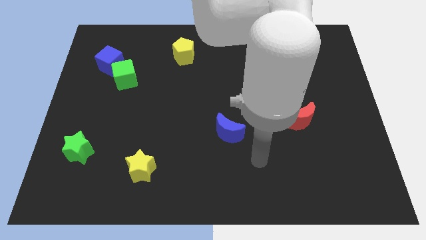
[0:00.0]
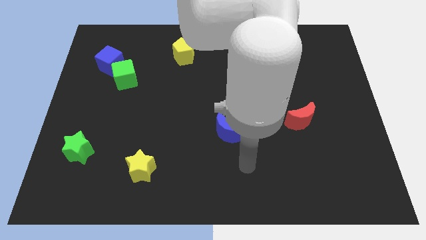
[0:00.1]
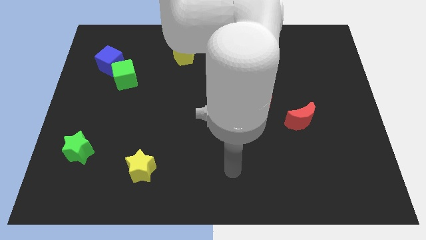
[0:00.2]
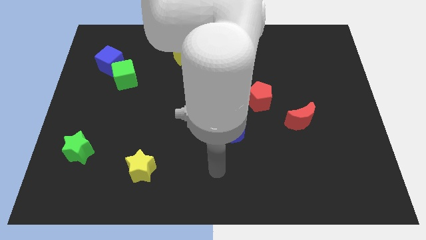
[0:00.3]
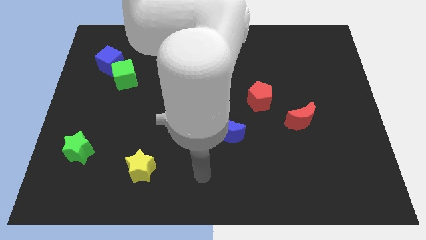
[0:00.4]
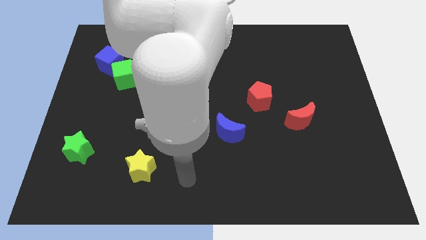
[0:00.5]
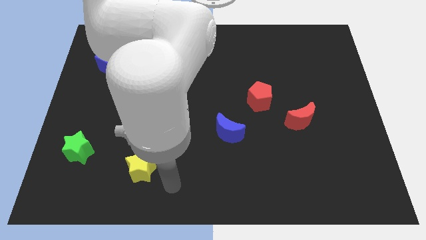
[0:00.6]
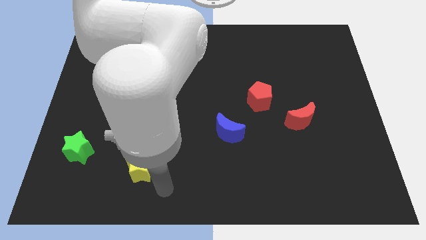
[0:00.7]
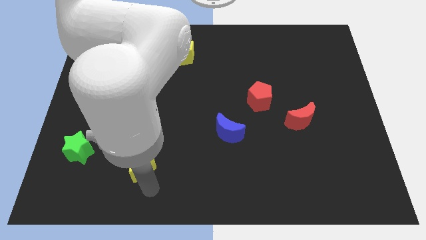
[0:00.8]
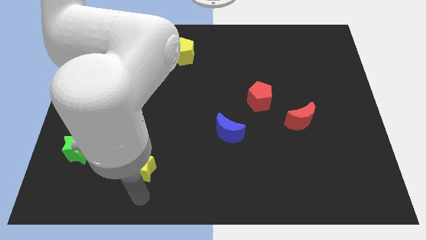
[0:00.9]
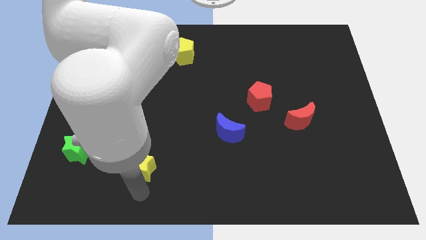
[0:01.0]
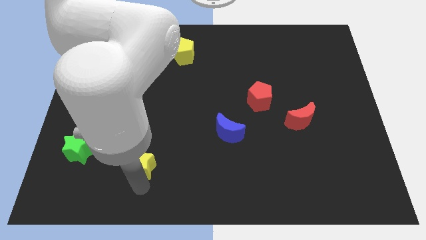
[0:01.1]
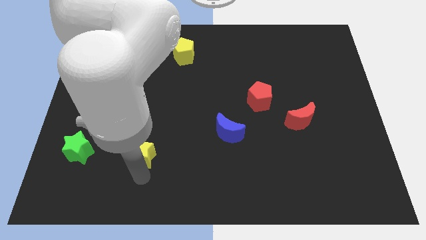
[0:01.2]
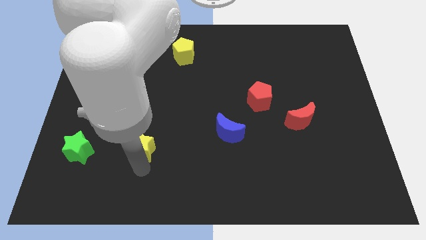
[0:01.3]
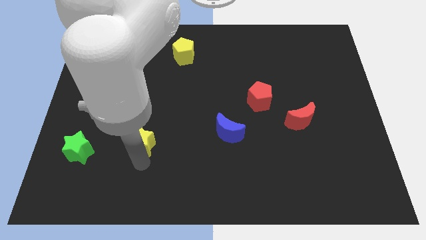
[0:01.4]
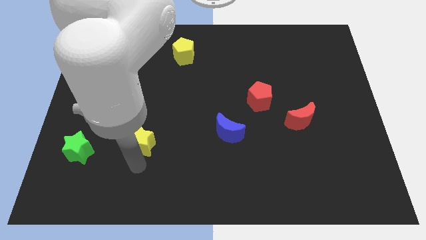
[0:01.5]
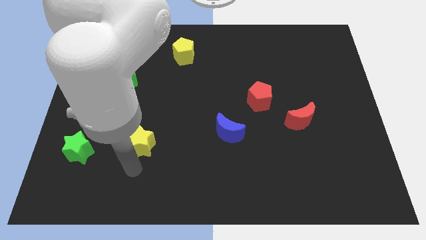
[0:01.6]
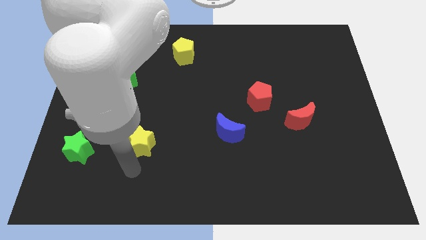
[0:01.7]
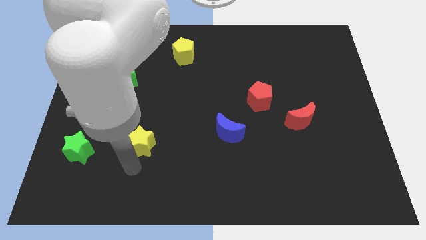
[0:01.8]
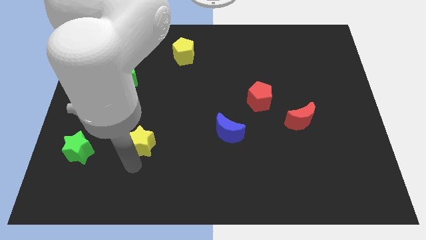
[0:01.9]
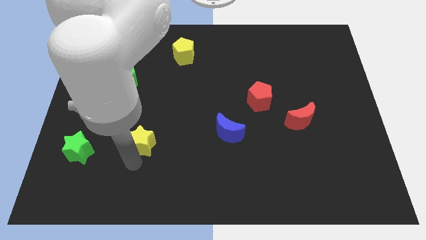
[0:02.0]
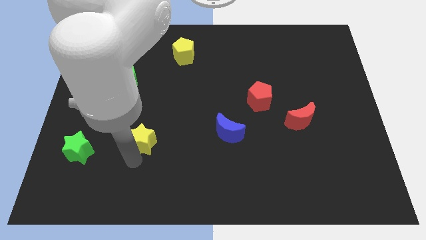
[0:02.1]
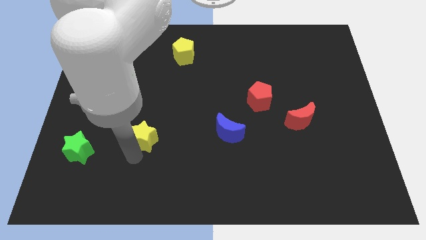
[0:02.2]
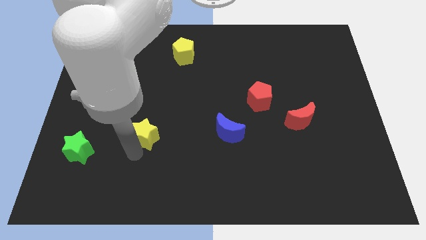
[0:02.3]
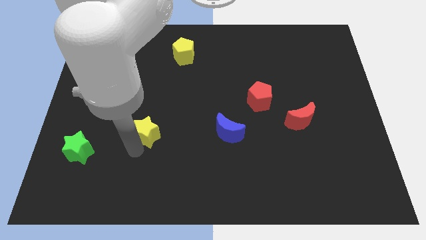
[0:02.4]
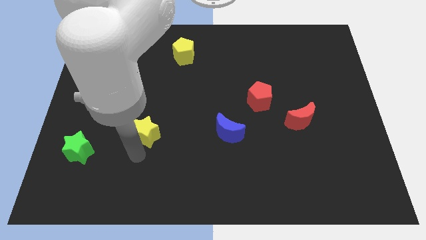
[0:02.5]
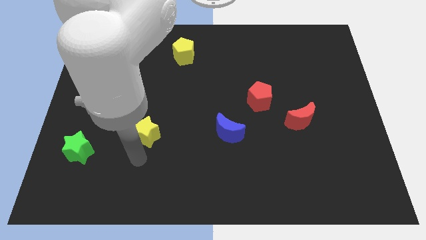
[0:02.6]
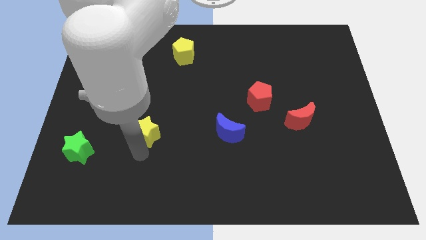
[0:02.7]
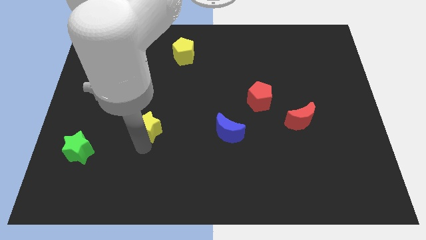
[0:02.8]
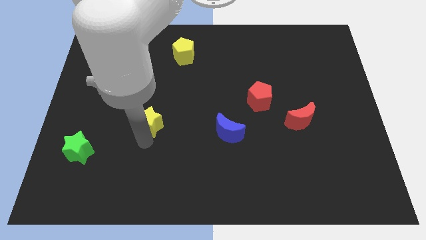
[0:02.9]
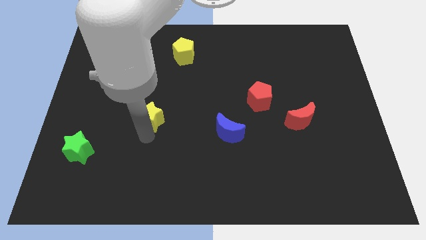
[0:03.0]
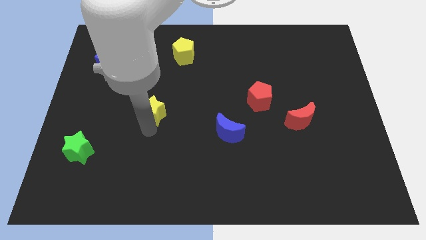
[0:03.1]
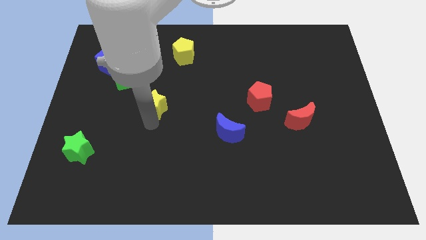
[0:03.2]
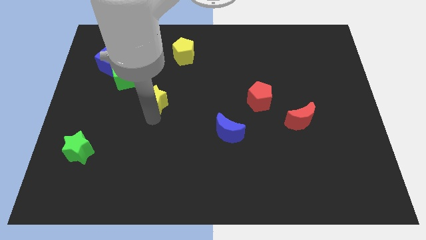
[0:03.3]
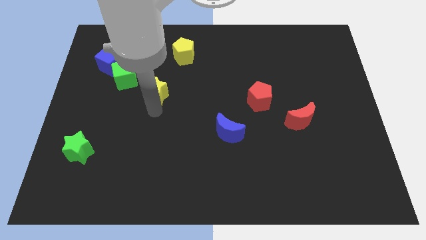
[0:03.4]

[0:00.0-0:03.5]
push the yellow star up

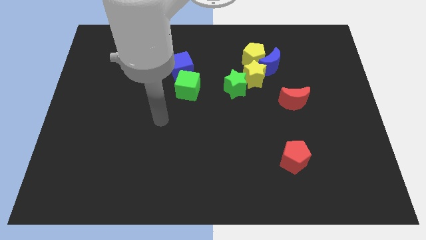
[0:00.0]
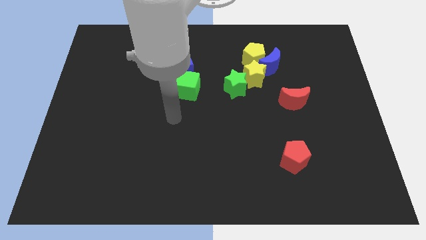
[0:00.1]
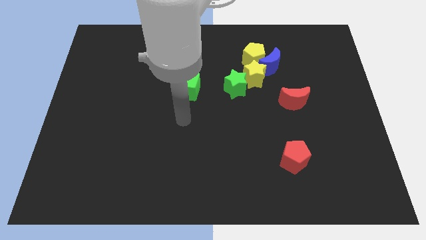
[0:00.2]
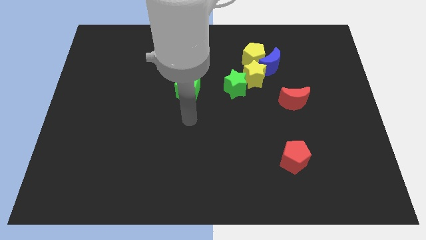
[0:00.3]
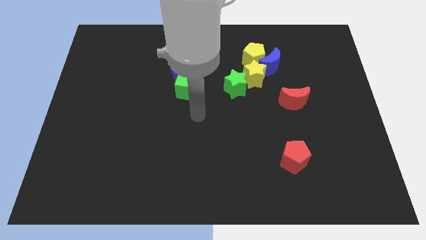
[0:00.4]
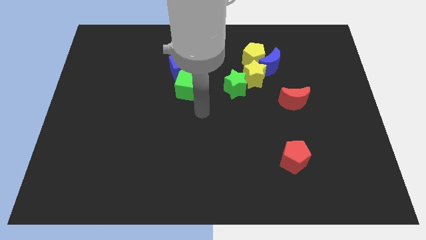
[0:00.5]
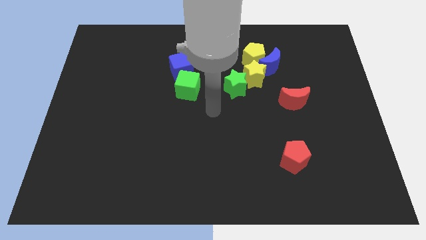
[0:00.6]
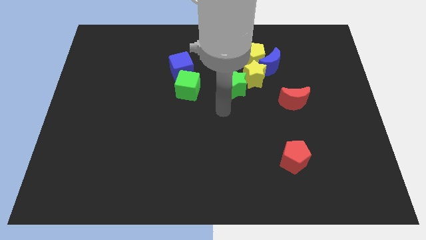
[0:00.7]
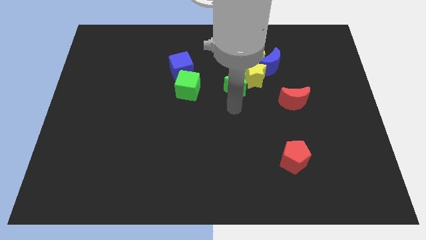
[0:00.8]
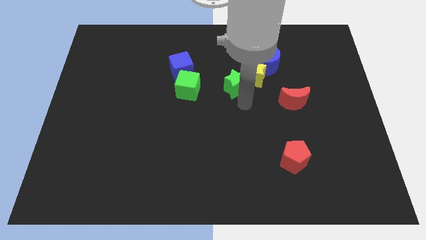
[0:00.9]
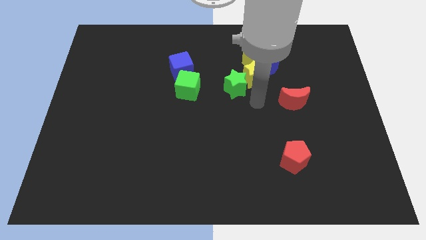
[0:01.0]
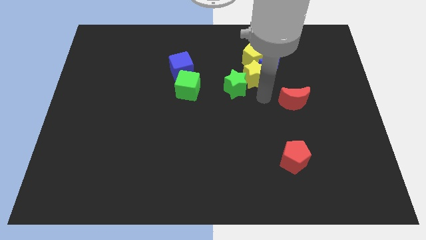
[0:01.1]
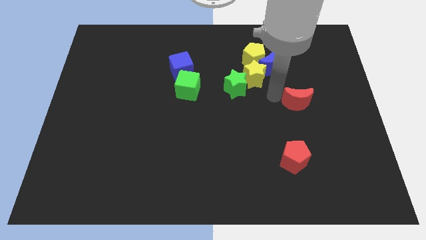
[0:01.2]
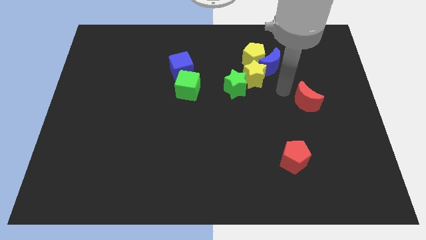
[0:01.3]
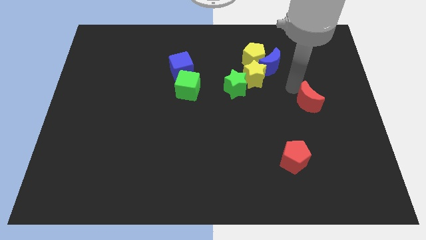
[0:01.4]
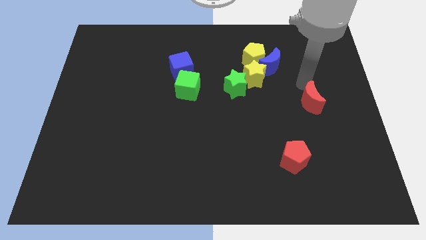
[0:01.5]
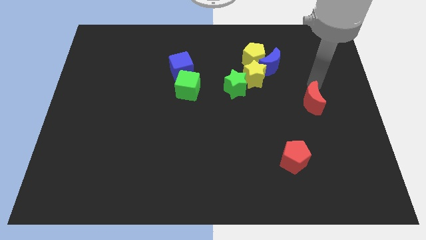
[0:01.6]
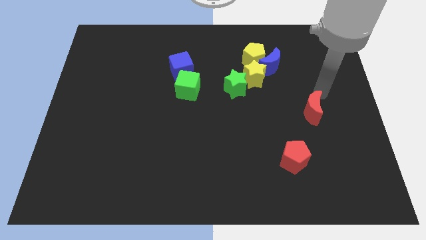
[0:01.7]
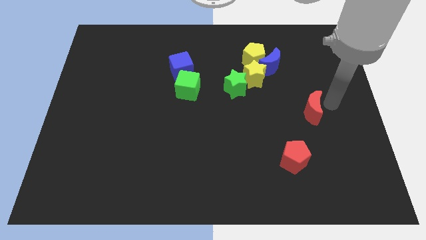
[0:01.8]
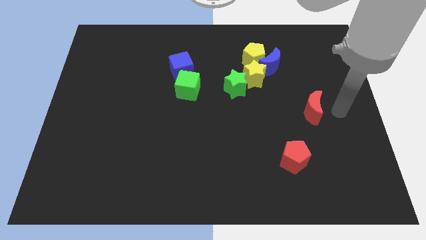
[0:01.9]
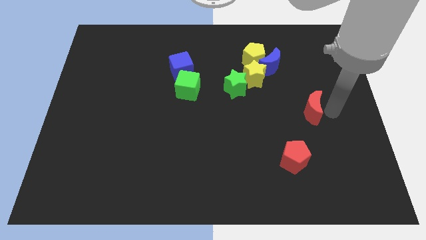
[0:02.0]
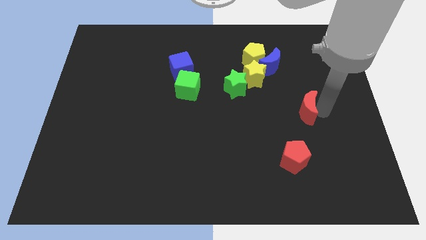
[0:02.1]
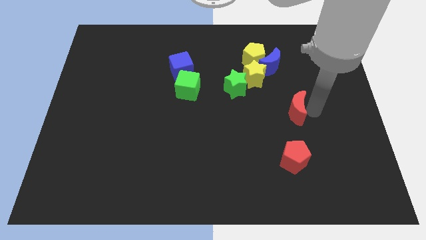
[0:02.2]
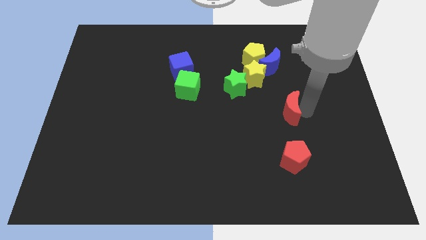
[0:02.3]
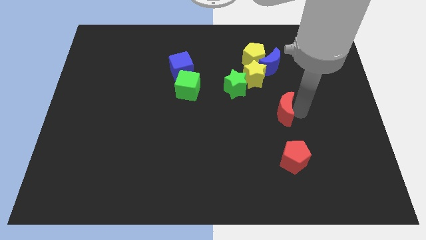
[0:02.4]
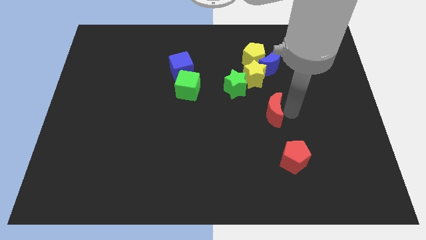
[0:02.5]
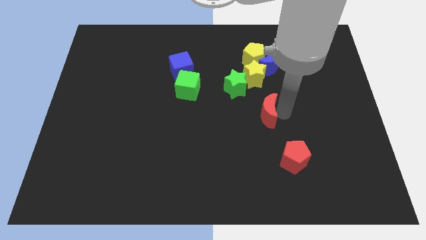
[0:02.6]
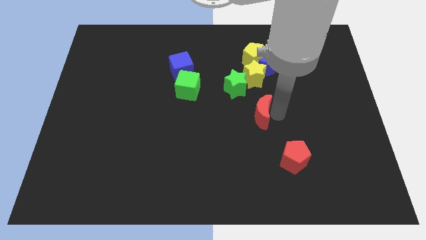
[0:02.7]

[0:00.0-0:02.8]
slightly move the red moon to the left

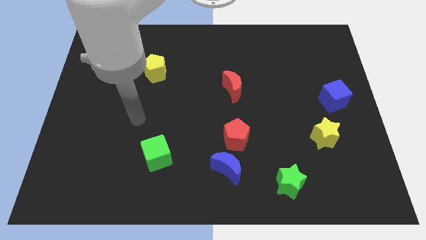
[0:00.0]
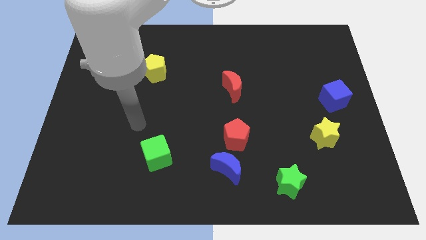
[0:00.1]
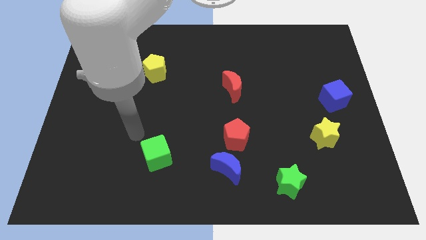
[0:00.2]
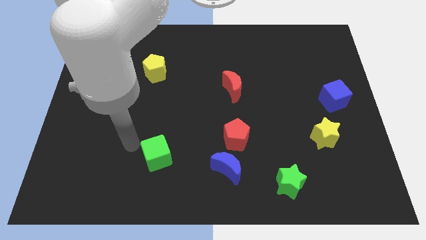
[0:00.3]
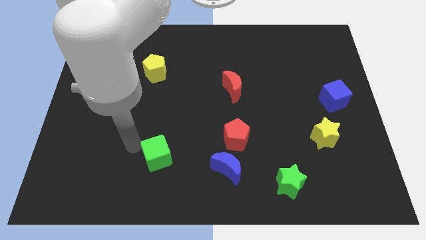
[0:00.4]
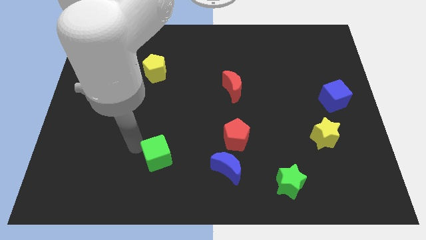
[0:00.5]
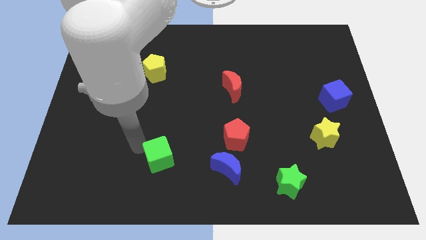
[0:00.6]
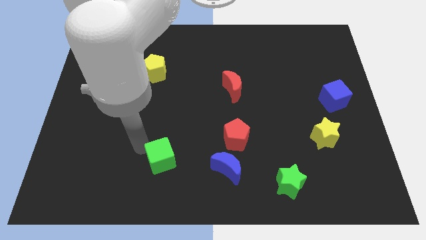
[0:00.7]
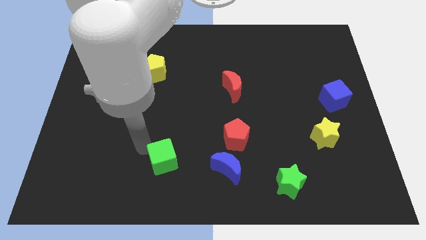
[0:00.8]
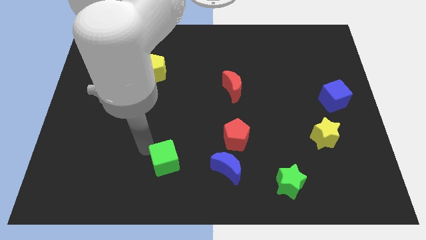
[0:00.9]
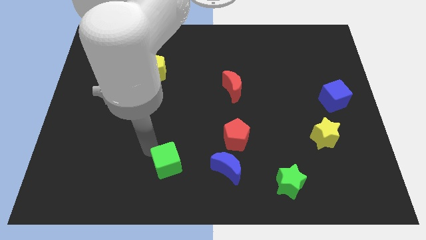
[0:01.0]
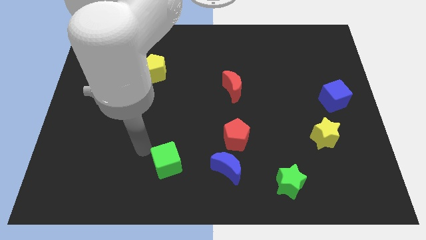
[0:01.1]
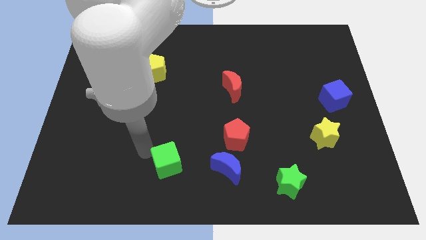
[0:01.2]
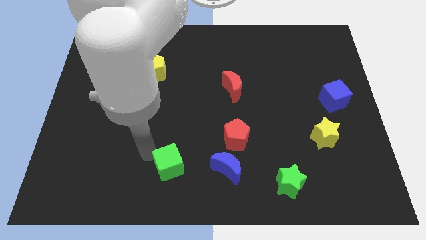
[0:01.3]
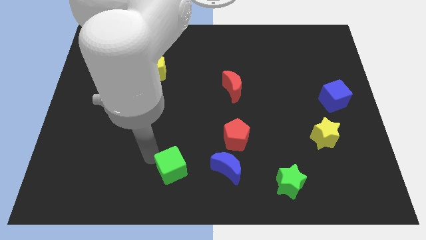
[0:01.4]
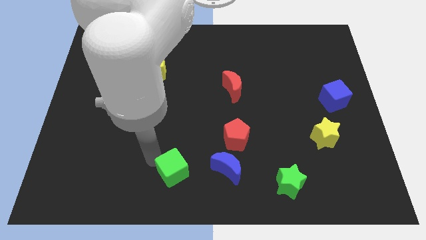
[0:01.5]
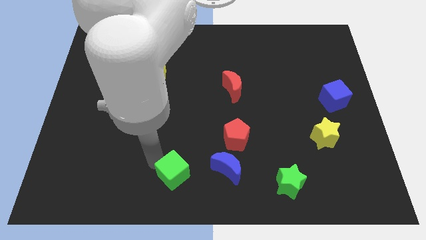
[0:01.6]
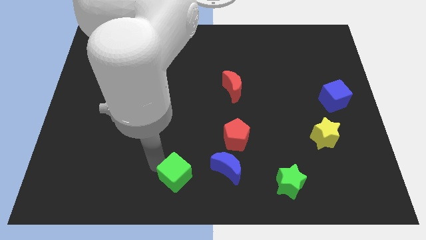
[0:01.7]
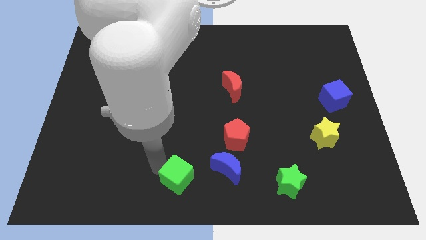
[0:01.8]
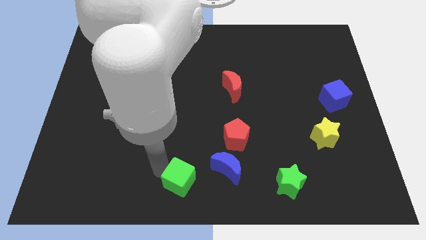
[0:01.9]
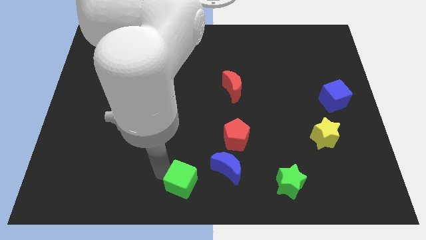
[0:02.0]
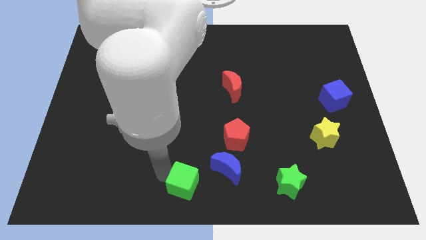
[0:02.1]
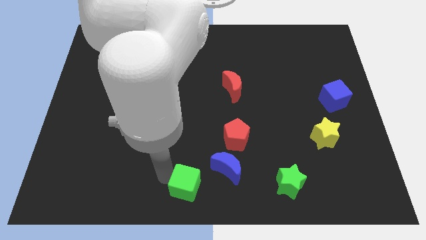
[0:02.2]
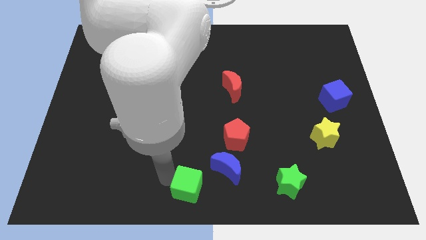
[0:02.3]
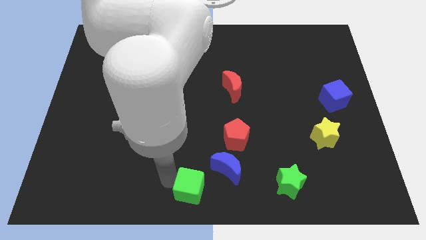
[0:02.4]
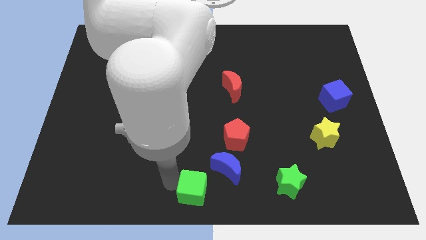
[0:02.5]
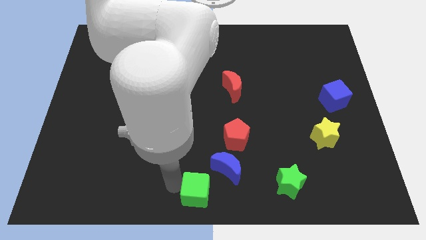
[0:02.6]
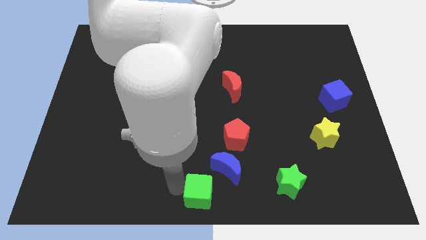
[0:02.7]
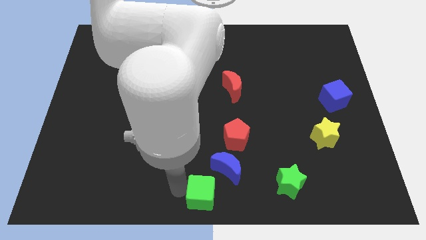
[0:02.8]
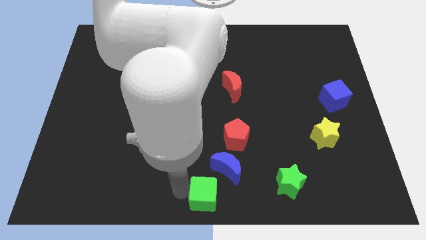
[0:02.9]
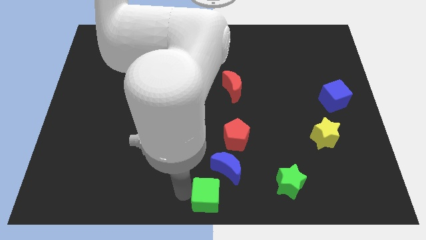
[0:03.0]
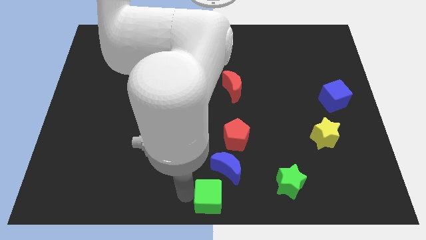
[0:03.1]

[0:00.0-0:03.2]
move the green cube to the right a little
